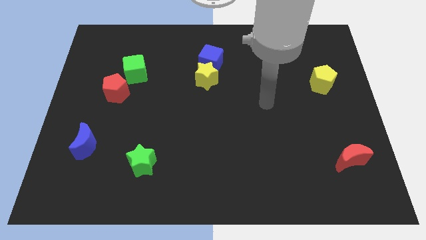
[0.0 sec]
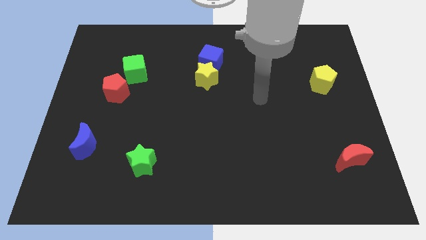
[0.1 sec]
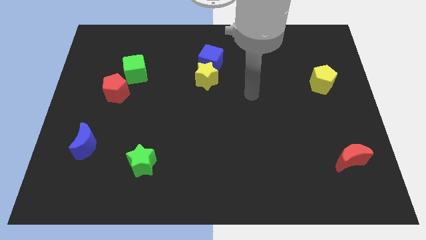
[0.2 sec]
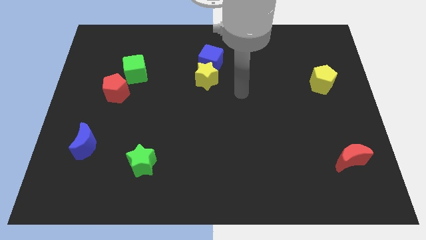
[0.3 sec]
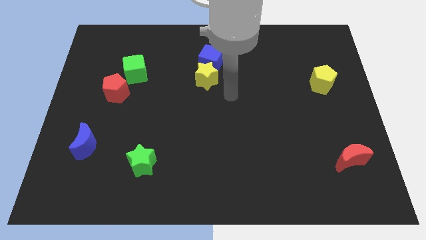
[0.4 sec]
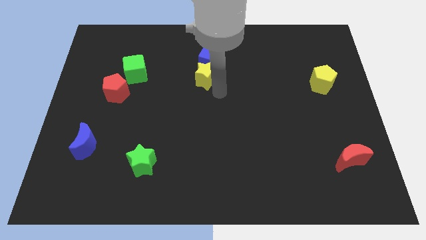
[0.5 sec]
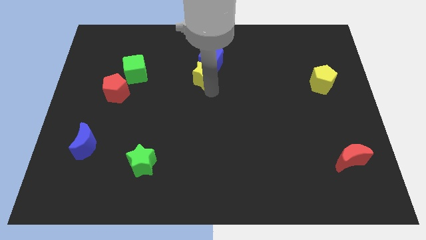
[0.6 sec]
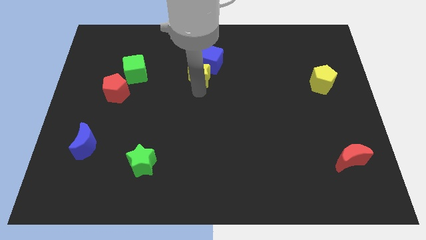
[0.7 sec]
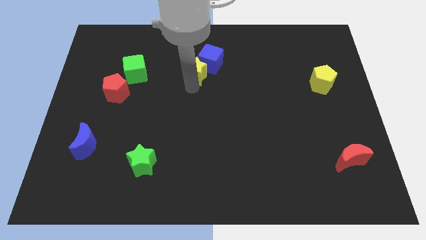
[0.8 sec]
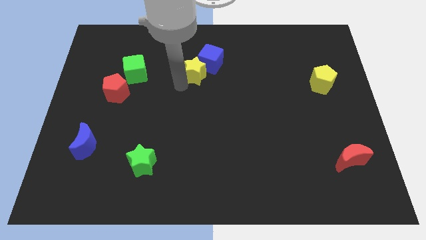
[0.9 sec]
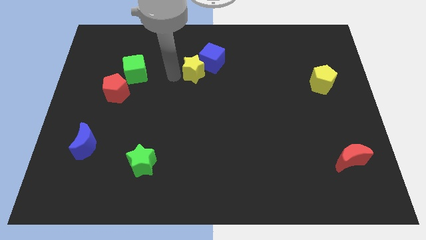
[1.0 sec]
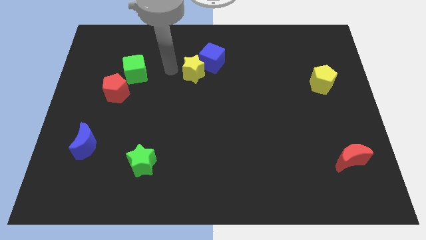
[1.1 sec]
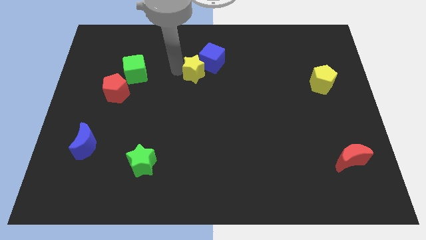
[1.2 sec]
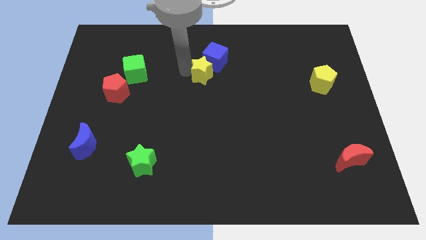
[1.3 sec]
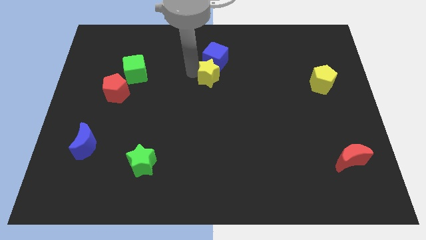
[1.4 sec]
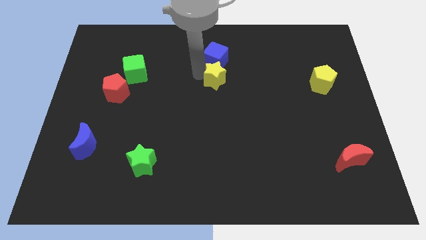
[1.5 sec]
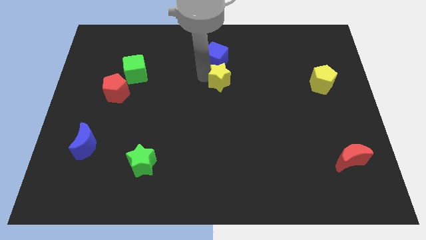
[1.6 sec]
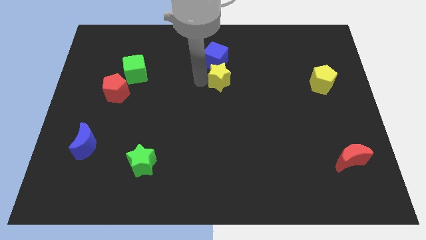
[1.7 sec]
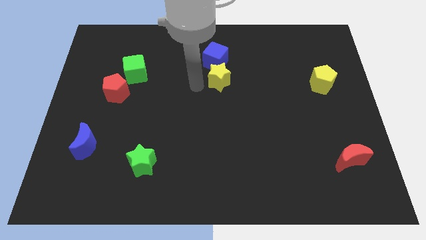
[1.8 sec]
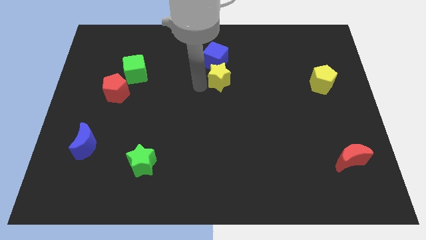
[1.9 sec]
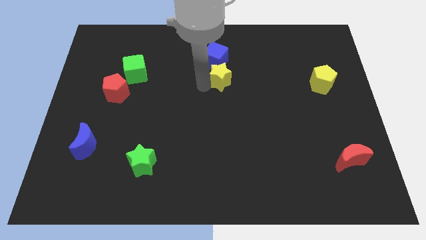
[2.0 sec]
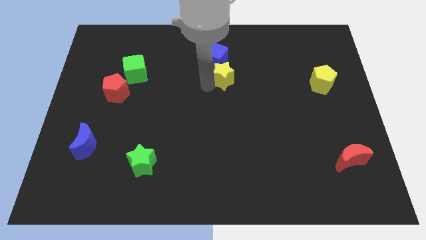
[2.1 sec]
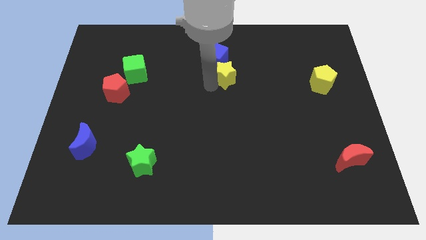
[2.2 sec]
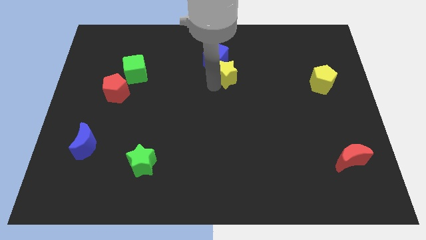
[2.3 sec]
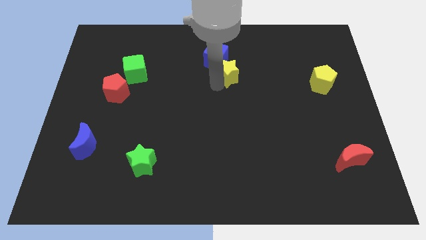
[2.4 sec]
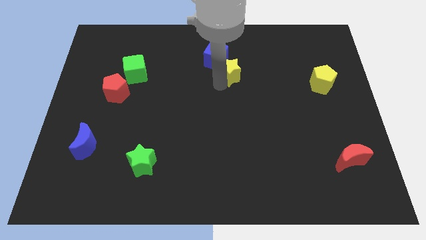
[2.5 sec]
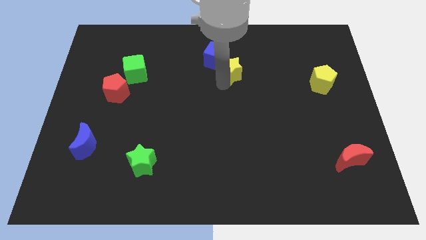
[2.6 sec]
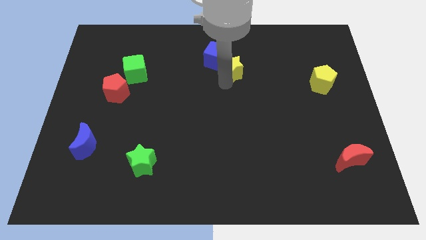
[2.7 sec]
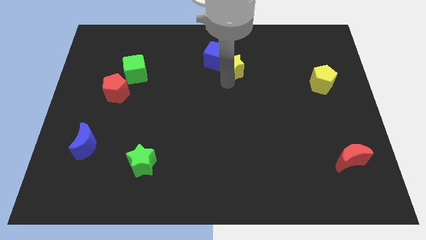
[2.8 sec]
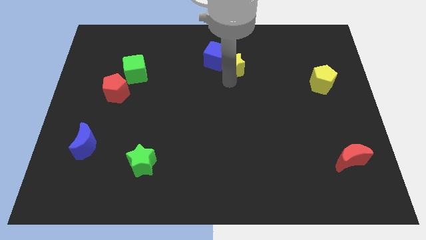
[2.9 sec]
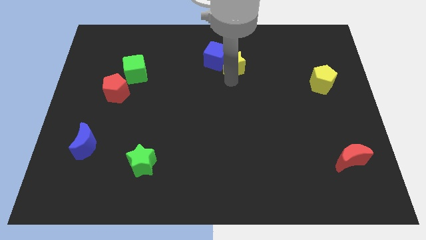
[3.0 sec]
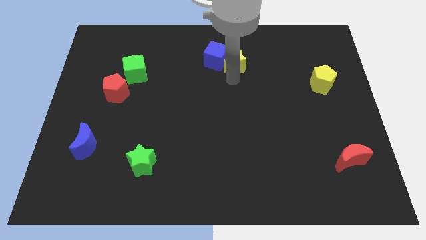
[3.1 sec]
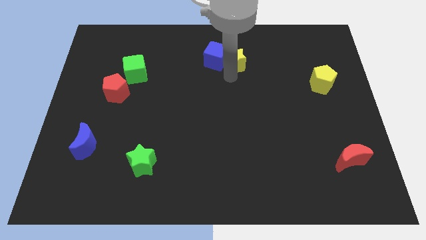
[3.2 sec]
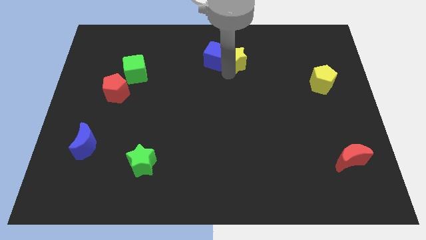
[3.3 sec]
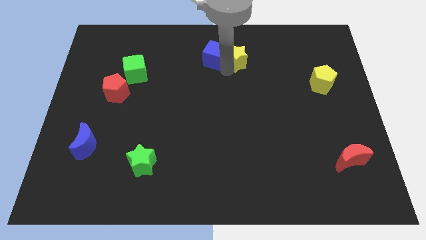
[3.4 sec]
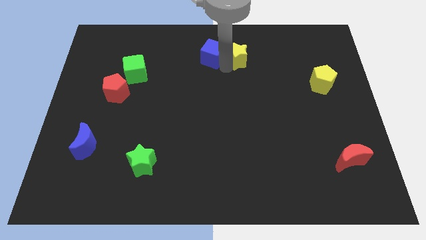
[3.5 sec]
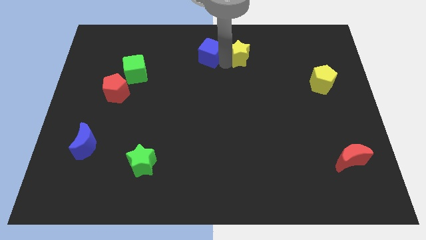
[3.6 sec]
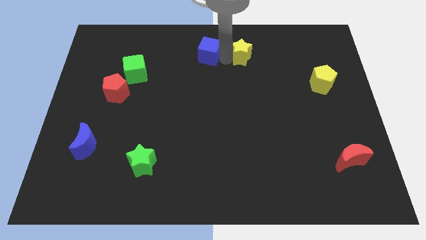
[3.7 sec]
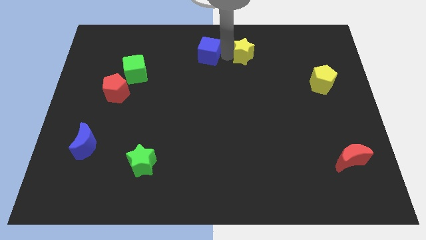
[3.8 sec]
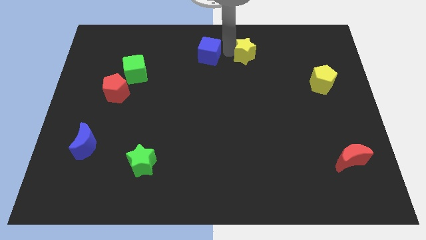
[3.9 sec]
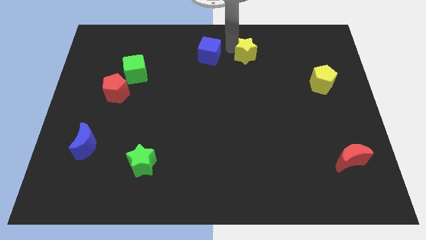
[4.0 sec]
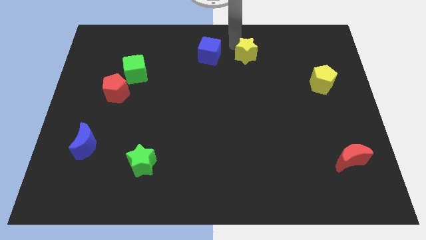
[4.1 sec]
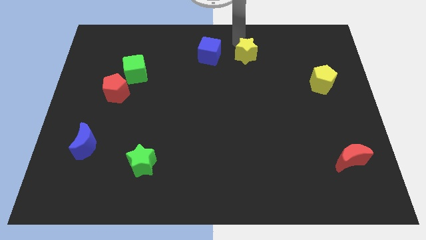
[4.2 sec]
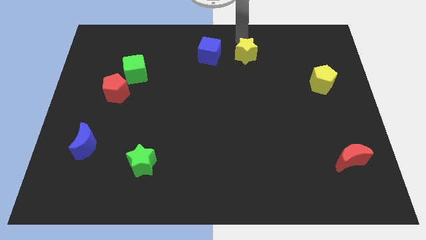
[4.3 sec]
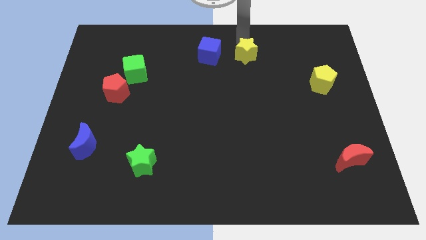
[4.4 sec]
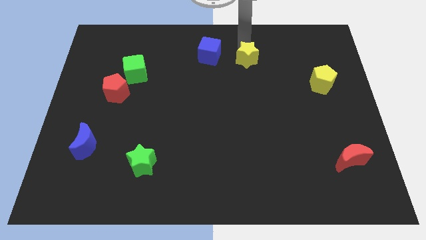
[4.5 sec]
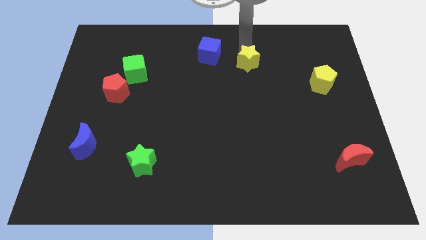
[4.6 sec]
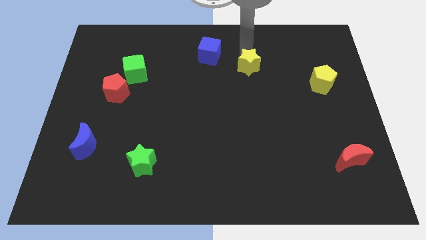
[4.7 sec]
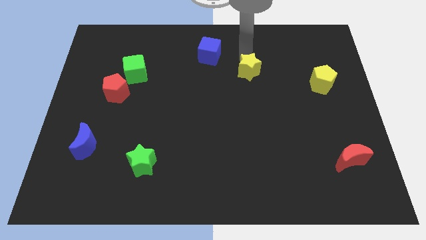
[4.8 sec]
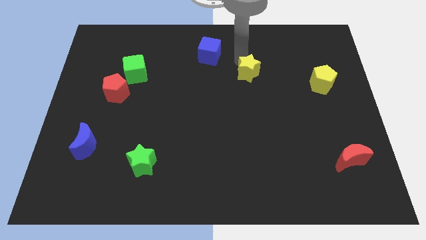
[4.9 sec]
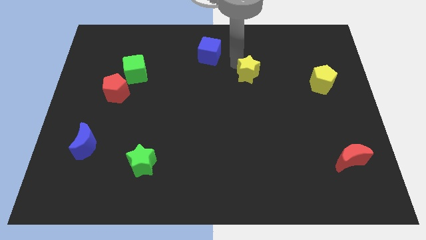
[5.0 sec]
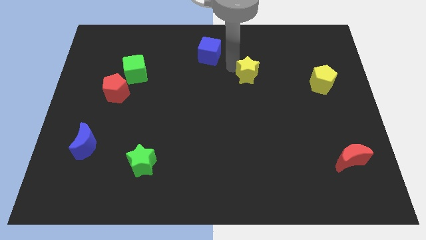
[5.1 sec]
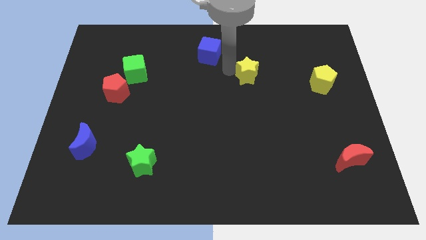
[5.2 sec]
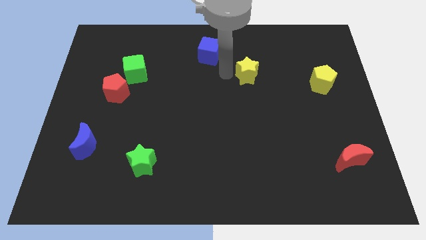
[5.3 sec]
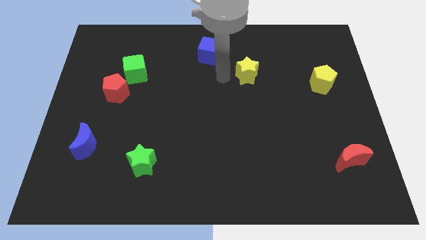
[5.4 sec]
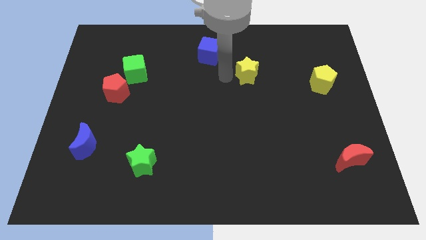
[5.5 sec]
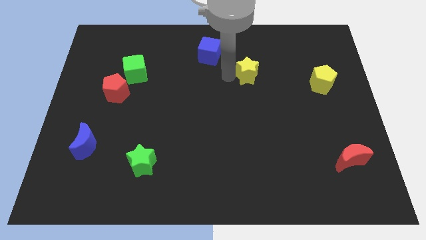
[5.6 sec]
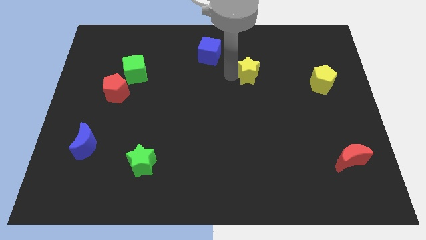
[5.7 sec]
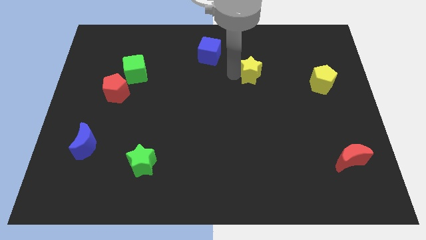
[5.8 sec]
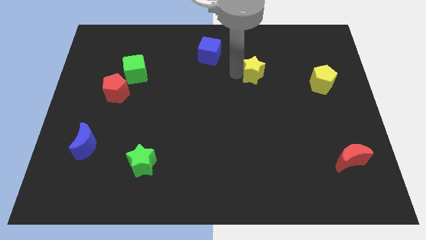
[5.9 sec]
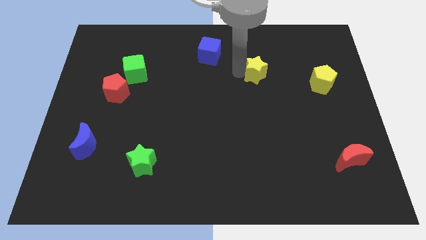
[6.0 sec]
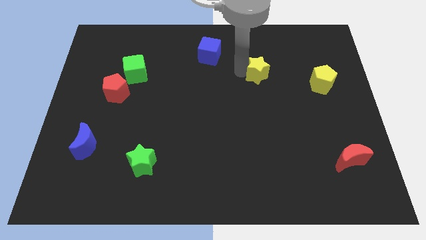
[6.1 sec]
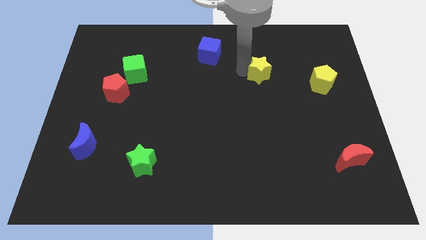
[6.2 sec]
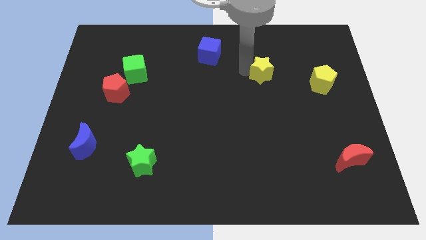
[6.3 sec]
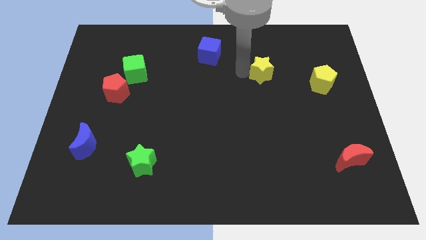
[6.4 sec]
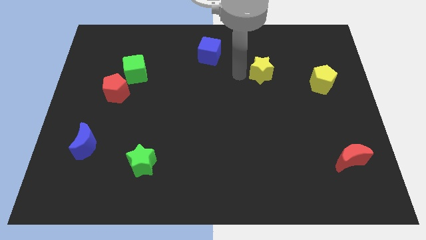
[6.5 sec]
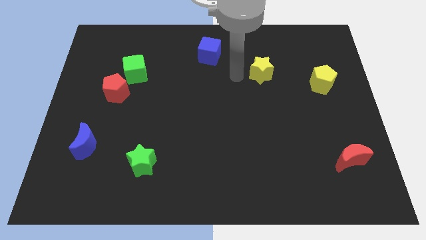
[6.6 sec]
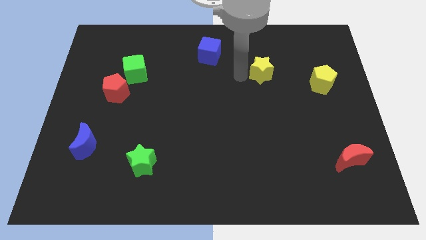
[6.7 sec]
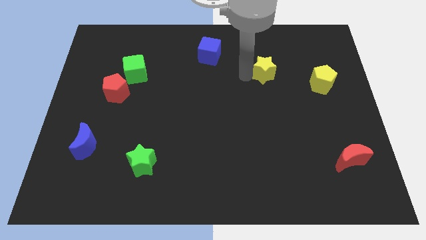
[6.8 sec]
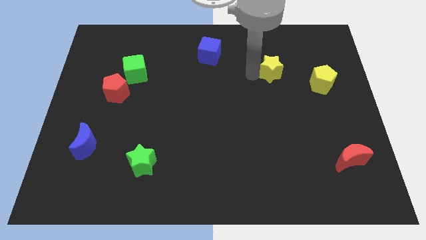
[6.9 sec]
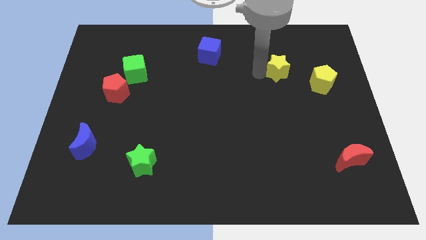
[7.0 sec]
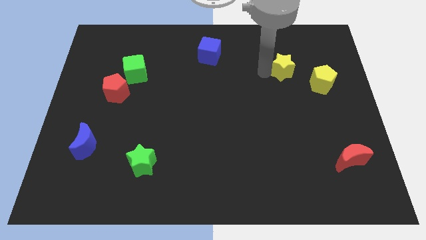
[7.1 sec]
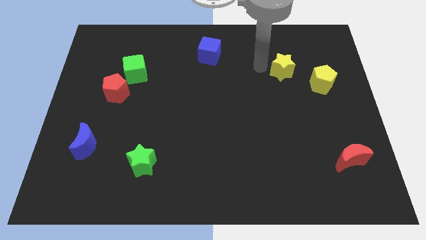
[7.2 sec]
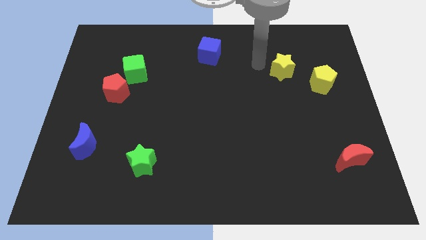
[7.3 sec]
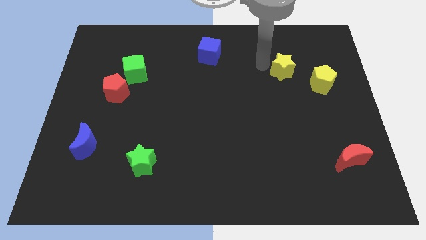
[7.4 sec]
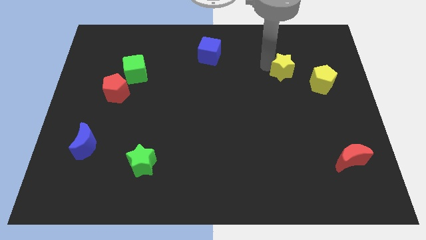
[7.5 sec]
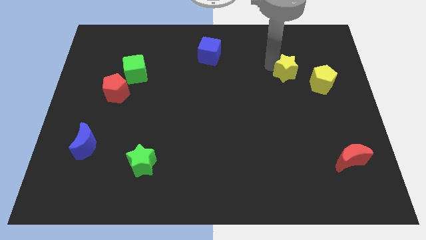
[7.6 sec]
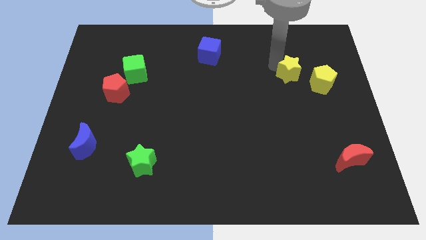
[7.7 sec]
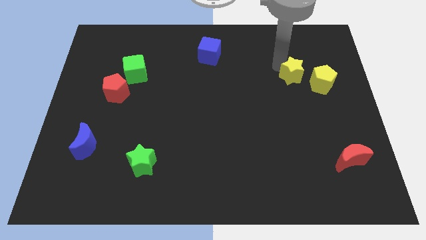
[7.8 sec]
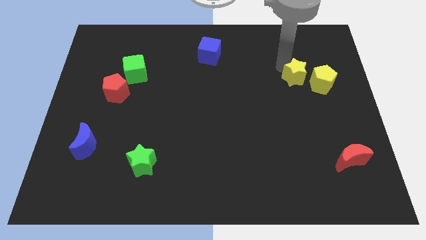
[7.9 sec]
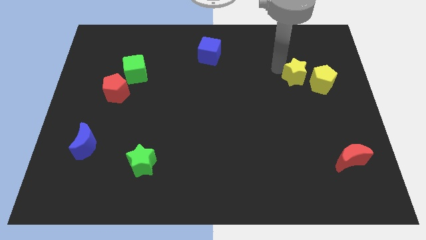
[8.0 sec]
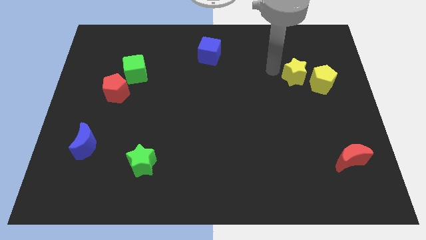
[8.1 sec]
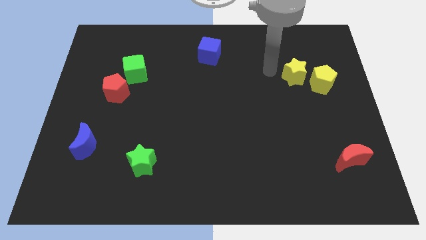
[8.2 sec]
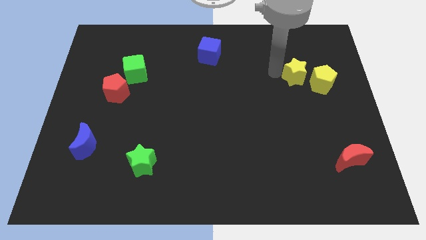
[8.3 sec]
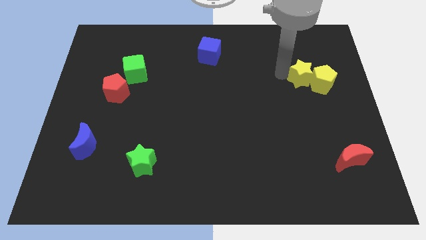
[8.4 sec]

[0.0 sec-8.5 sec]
move the yellow star next to the yellow pentagon
